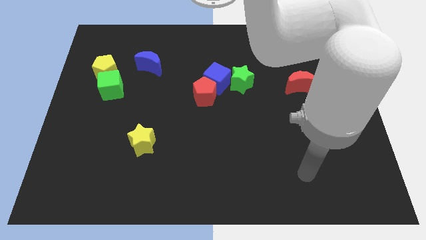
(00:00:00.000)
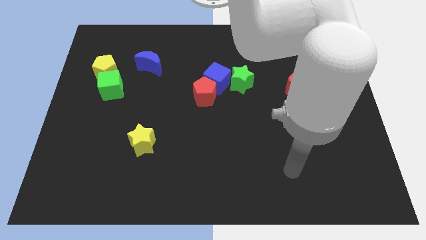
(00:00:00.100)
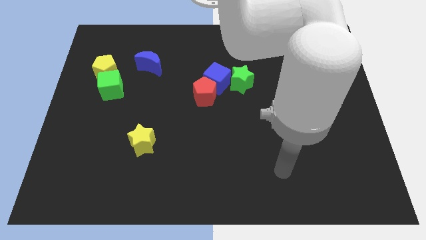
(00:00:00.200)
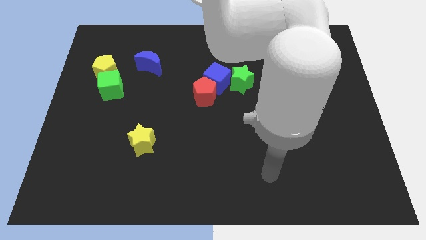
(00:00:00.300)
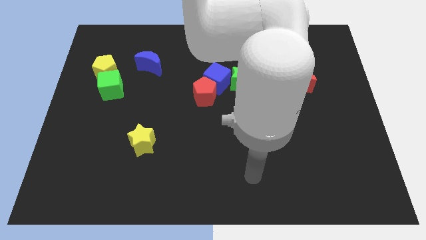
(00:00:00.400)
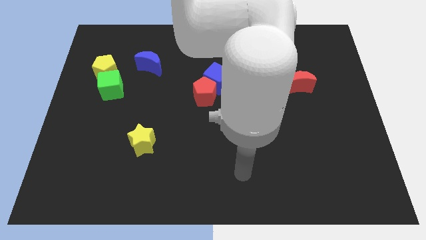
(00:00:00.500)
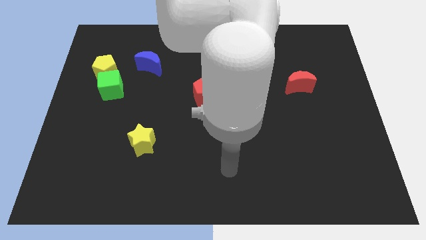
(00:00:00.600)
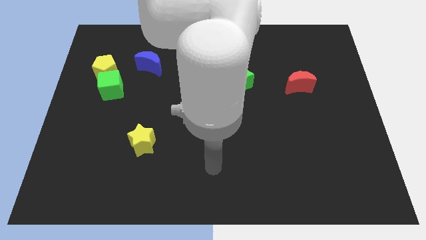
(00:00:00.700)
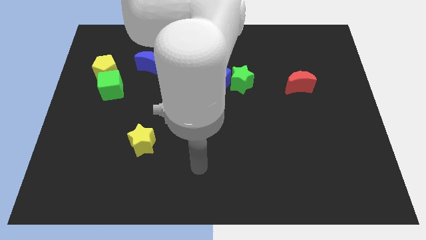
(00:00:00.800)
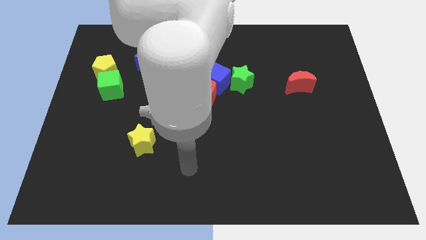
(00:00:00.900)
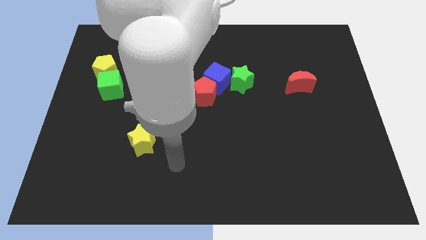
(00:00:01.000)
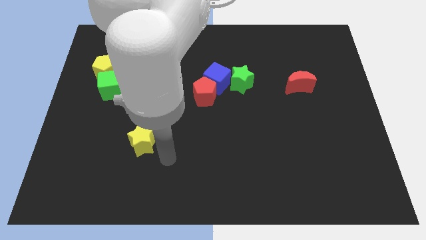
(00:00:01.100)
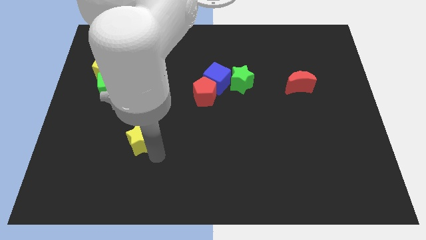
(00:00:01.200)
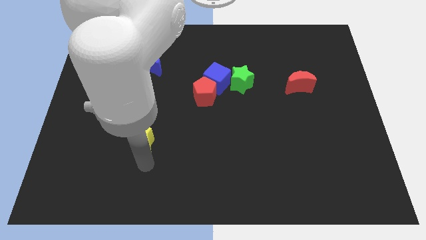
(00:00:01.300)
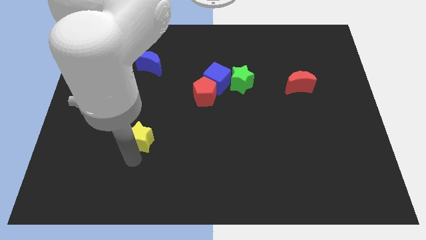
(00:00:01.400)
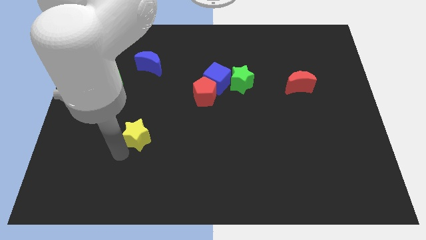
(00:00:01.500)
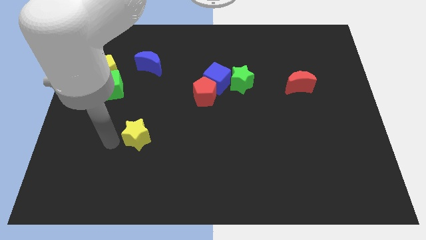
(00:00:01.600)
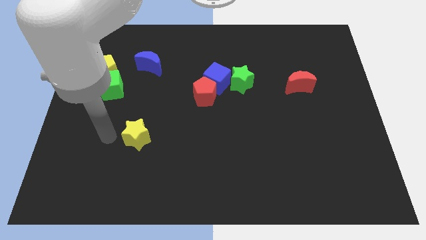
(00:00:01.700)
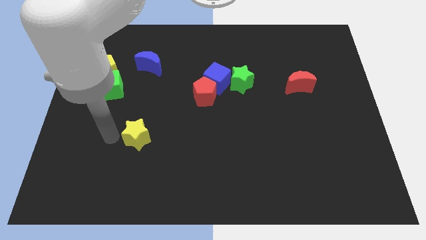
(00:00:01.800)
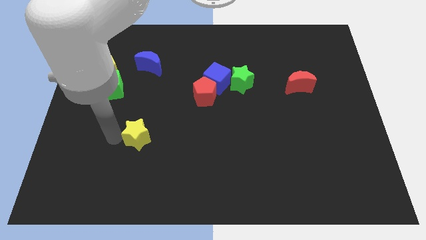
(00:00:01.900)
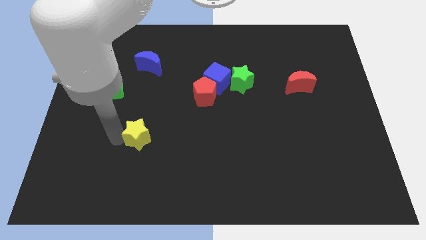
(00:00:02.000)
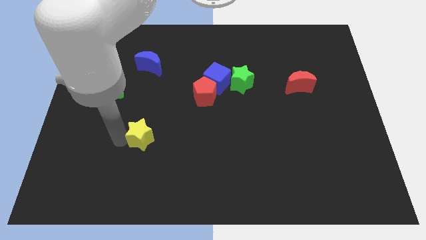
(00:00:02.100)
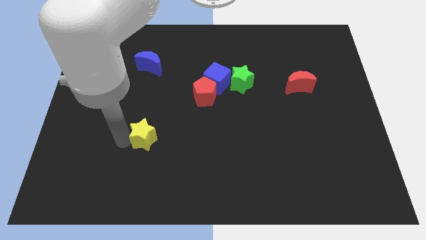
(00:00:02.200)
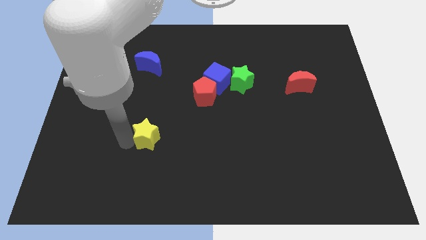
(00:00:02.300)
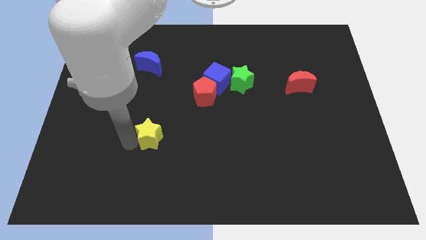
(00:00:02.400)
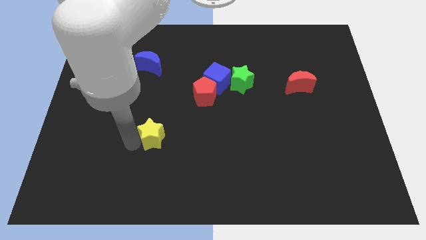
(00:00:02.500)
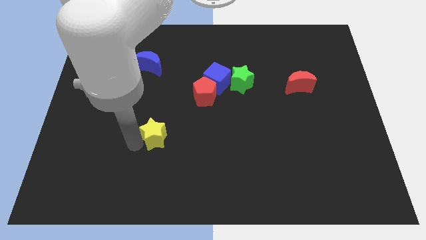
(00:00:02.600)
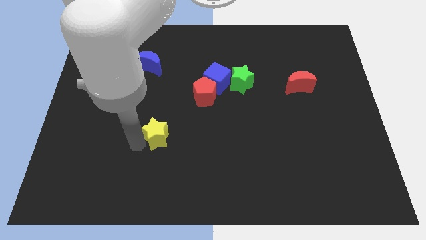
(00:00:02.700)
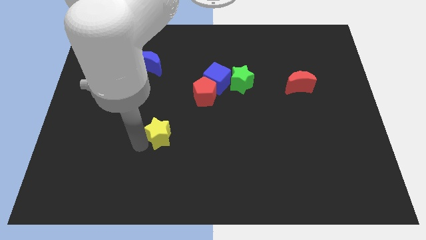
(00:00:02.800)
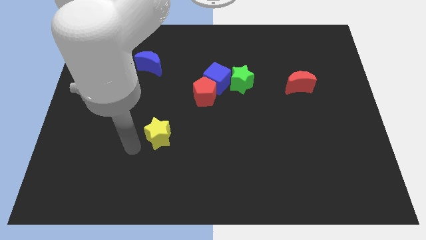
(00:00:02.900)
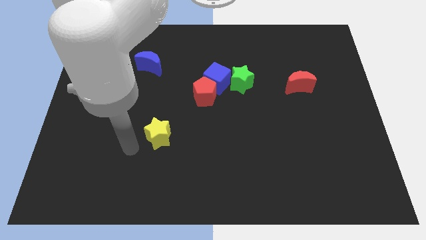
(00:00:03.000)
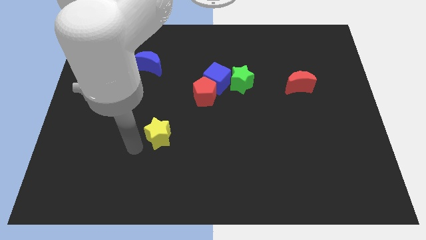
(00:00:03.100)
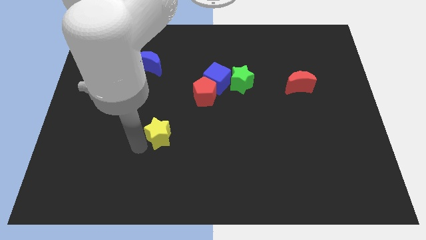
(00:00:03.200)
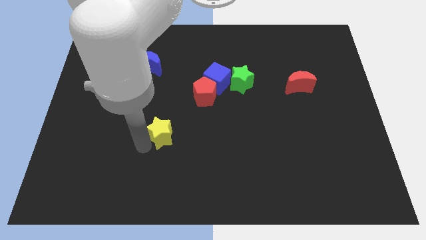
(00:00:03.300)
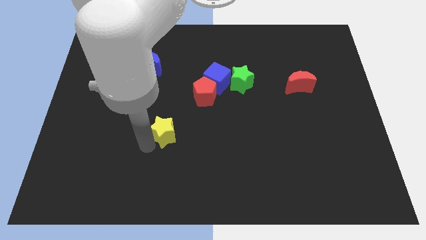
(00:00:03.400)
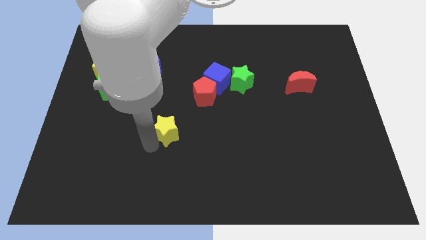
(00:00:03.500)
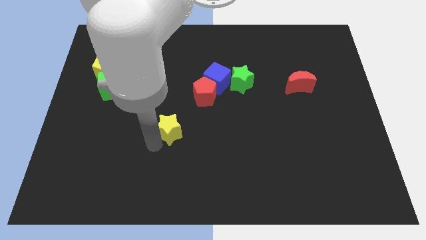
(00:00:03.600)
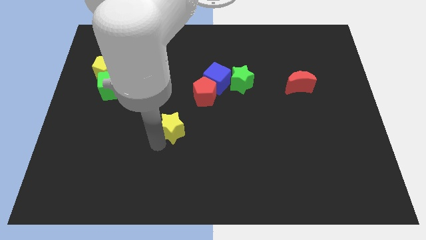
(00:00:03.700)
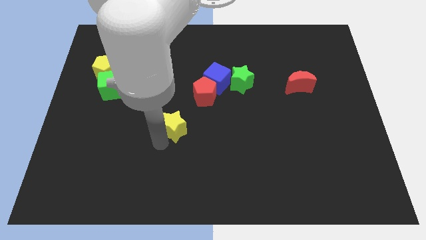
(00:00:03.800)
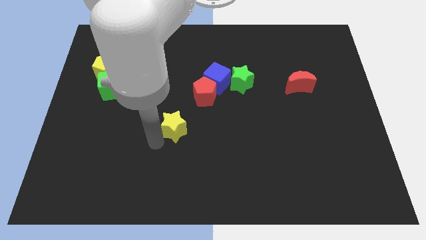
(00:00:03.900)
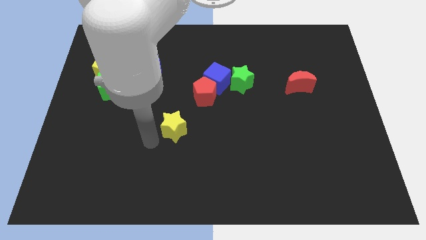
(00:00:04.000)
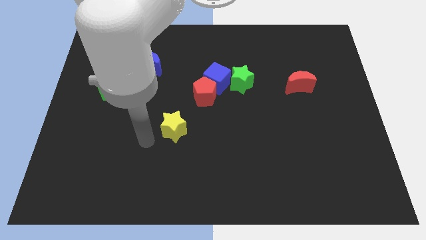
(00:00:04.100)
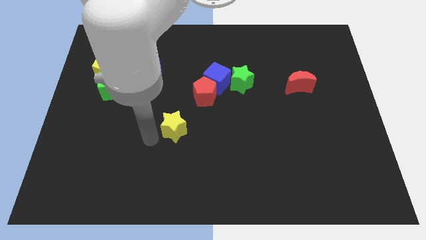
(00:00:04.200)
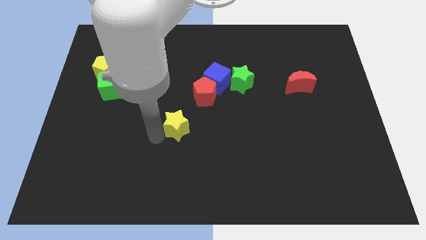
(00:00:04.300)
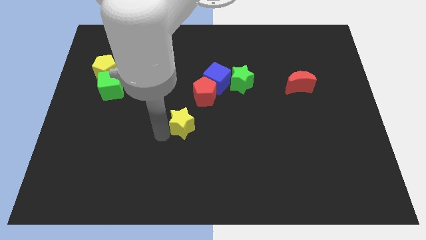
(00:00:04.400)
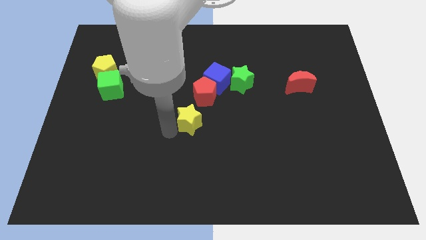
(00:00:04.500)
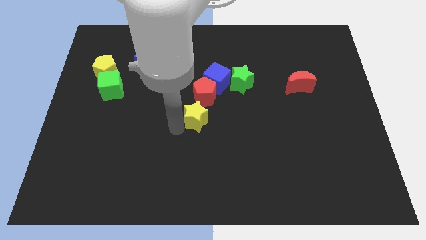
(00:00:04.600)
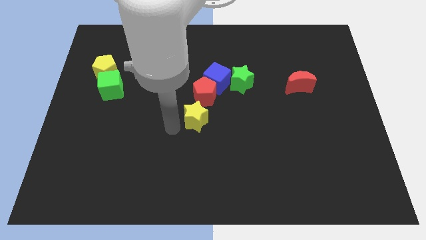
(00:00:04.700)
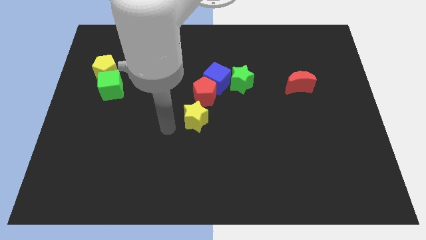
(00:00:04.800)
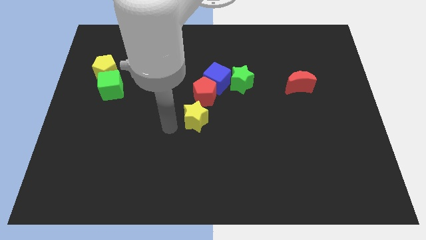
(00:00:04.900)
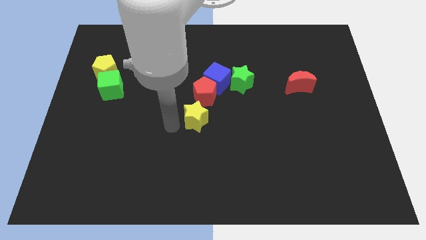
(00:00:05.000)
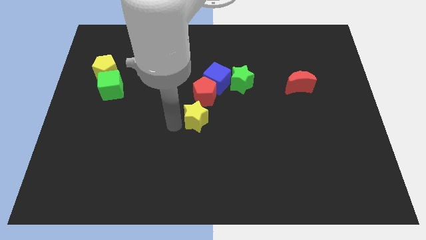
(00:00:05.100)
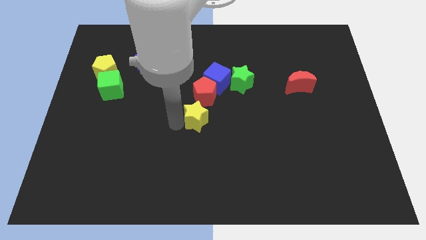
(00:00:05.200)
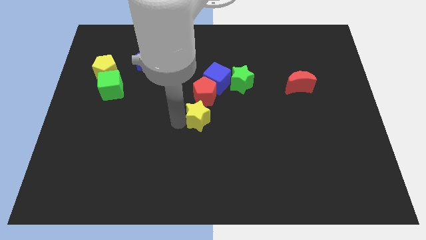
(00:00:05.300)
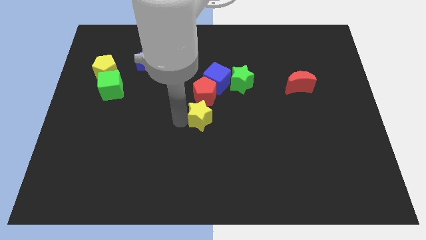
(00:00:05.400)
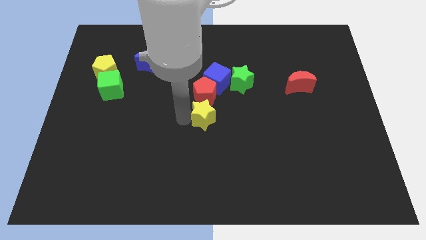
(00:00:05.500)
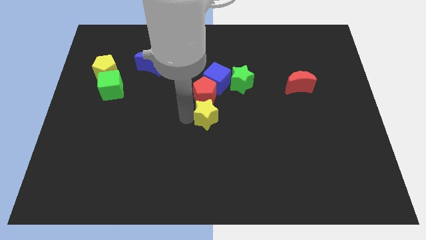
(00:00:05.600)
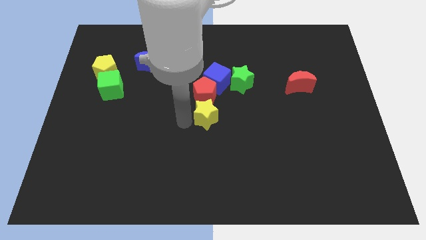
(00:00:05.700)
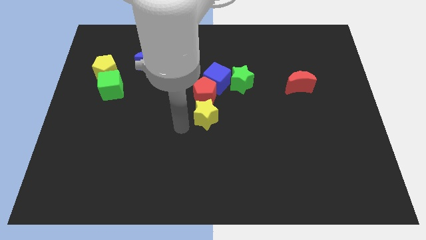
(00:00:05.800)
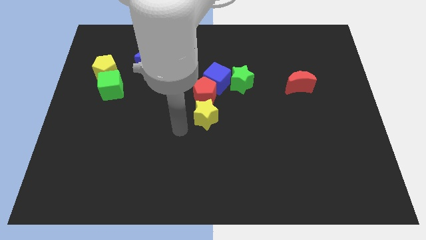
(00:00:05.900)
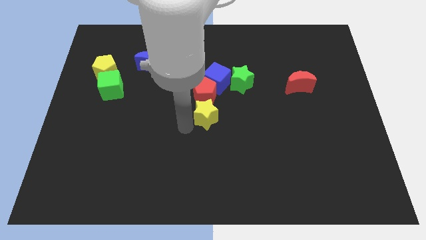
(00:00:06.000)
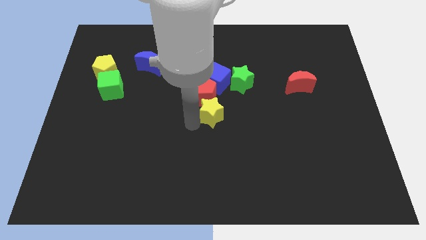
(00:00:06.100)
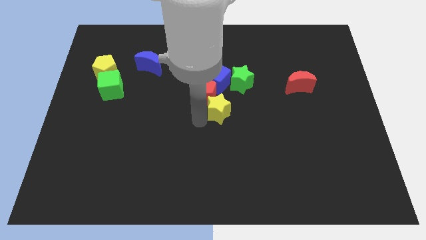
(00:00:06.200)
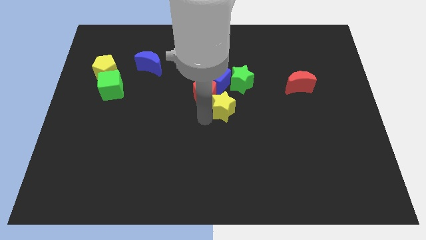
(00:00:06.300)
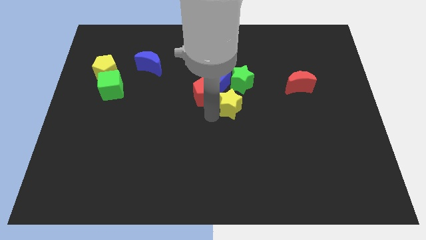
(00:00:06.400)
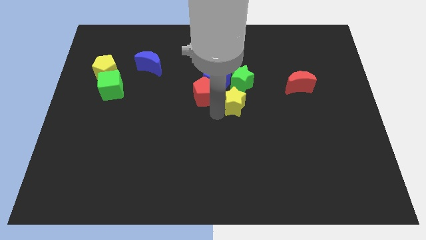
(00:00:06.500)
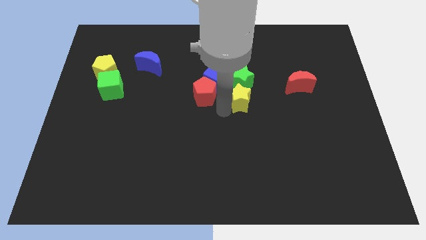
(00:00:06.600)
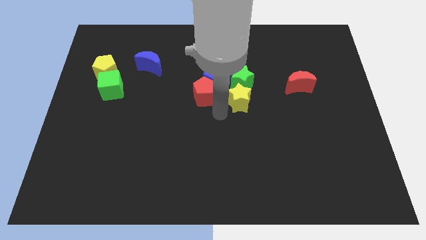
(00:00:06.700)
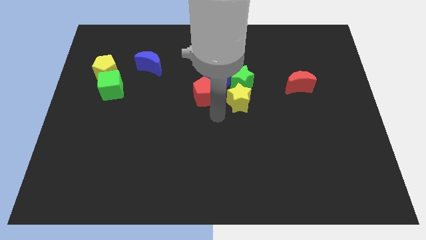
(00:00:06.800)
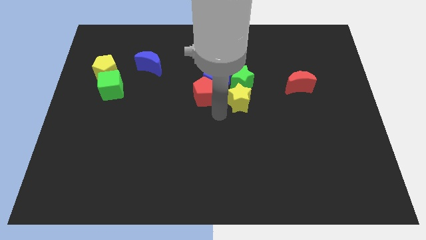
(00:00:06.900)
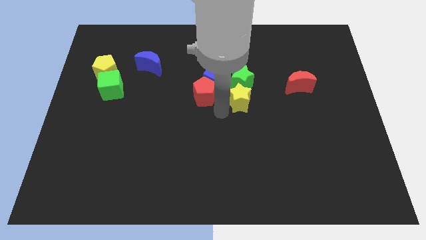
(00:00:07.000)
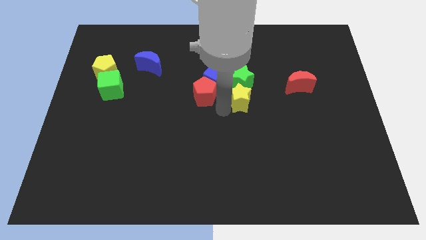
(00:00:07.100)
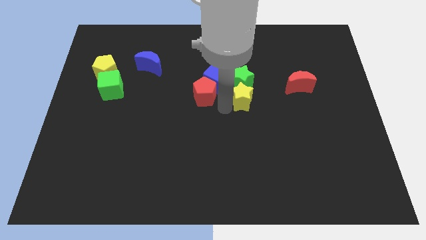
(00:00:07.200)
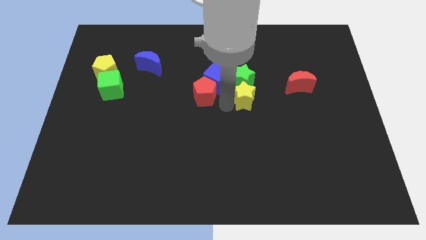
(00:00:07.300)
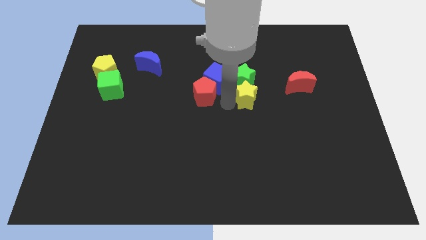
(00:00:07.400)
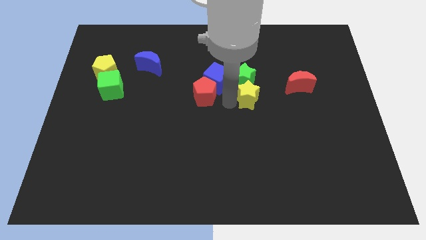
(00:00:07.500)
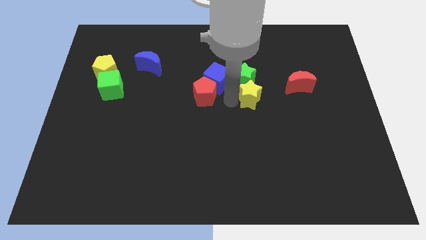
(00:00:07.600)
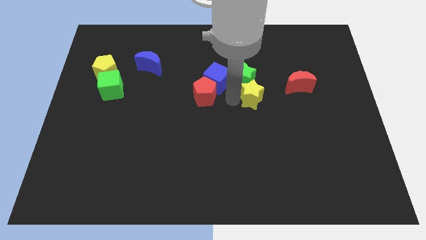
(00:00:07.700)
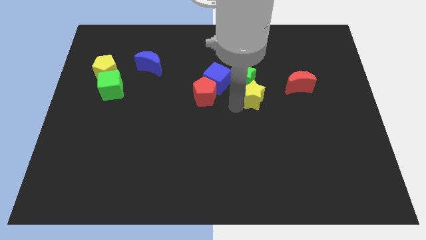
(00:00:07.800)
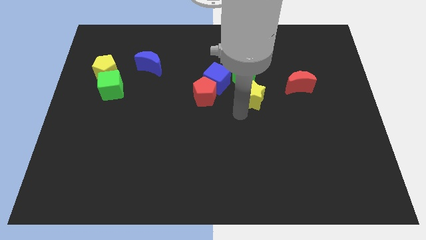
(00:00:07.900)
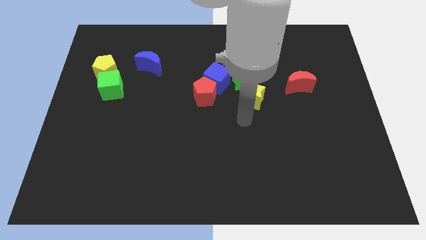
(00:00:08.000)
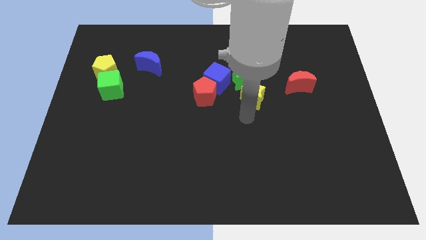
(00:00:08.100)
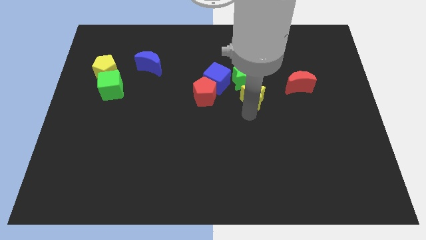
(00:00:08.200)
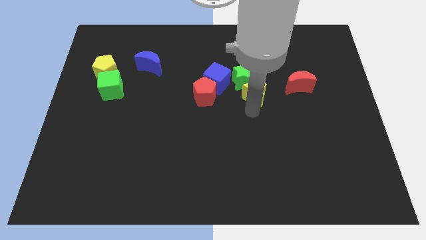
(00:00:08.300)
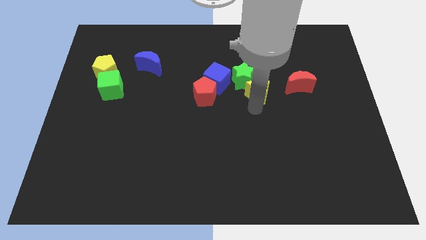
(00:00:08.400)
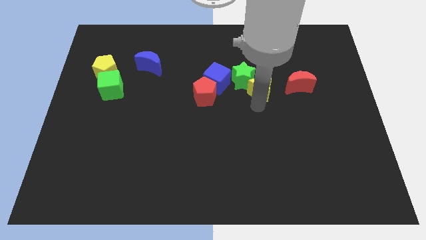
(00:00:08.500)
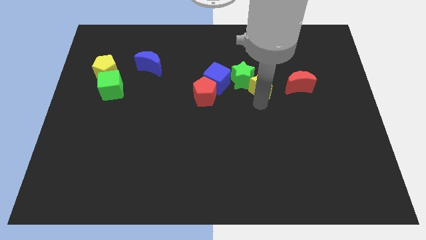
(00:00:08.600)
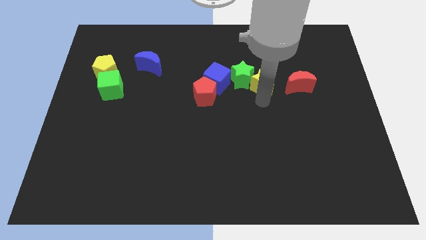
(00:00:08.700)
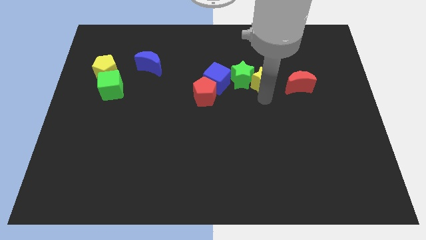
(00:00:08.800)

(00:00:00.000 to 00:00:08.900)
slide the yellow star diagonally up and to the right of the green star
